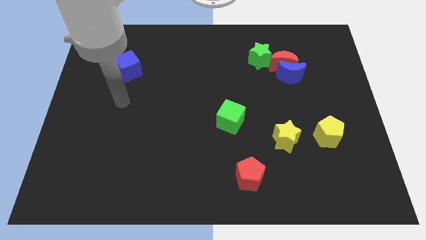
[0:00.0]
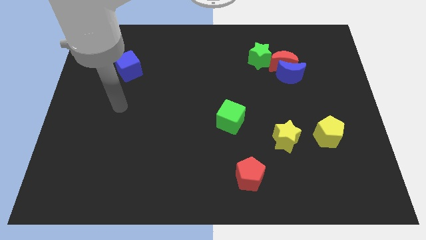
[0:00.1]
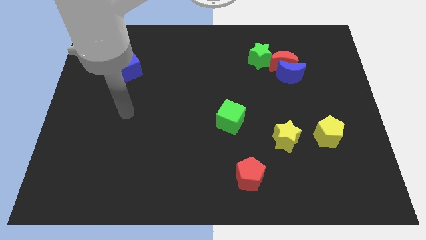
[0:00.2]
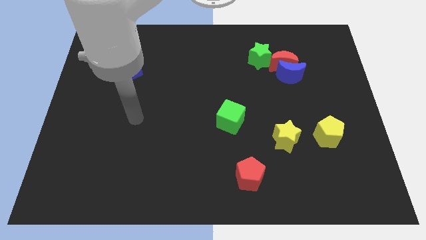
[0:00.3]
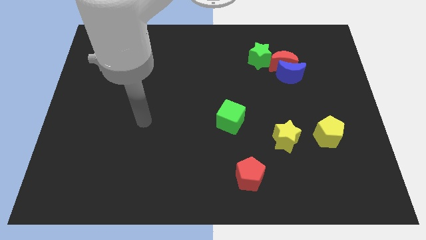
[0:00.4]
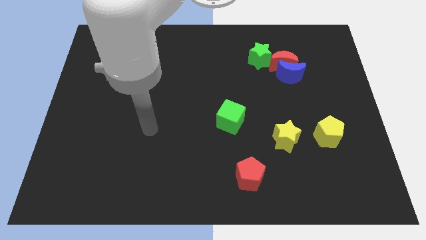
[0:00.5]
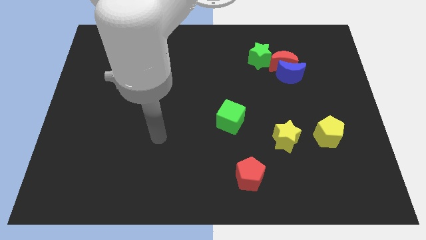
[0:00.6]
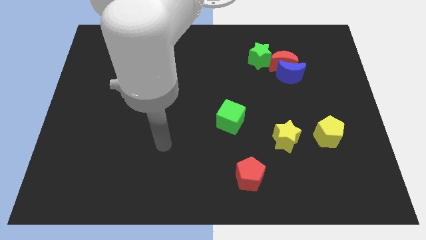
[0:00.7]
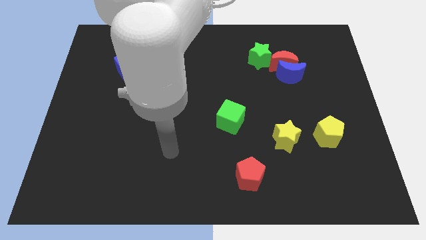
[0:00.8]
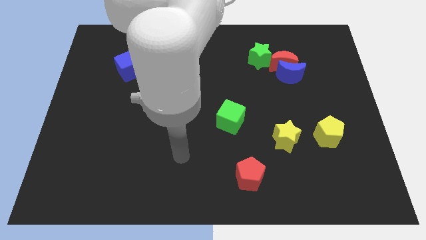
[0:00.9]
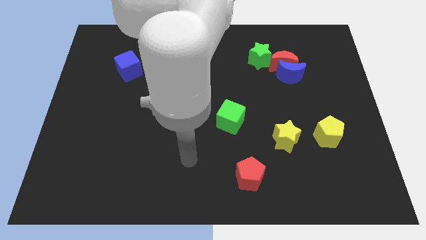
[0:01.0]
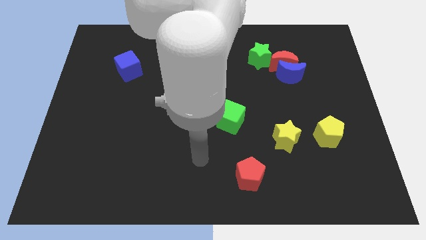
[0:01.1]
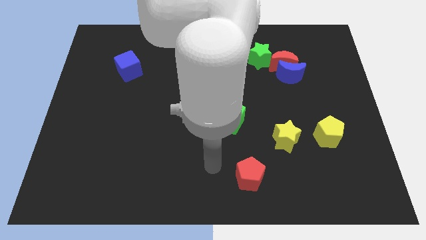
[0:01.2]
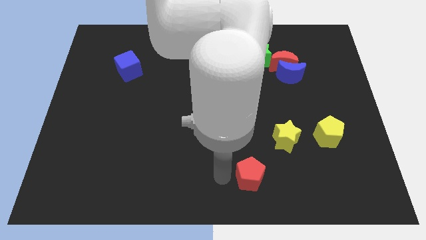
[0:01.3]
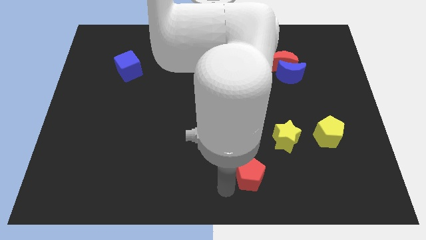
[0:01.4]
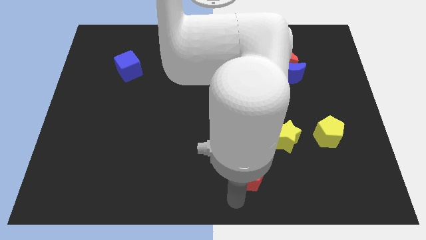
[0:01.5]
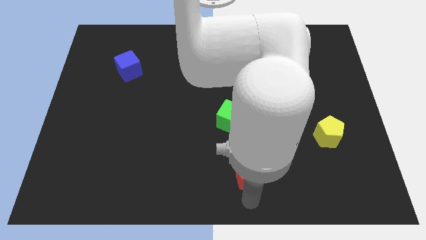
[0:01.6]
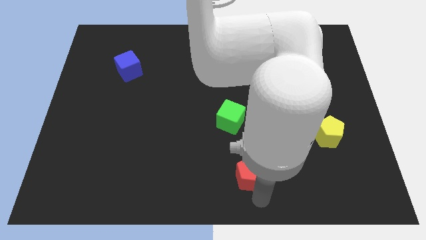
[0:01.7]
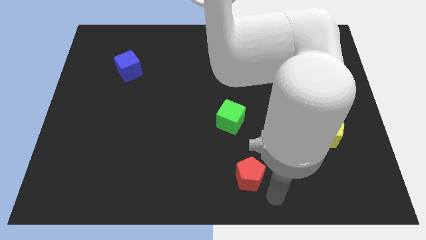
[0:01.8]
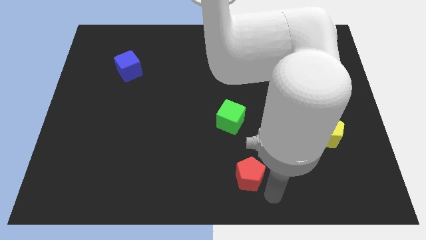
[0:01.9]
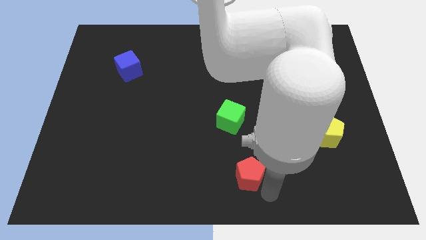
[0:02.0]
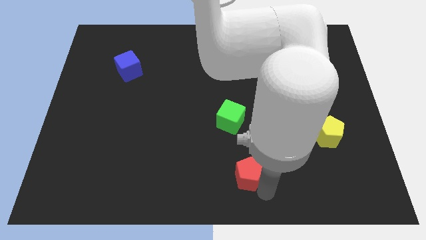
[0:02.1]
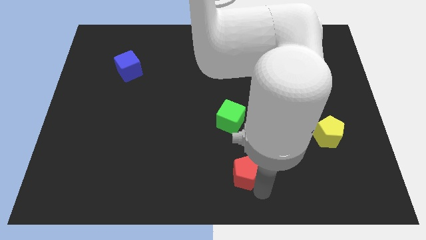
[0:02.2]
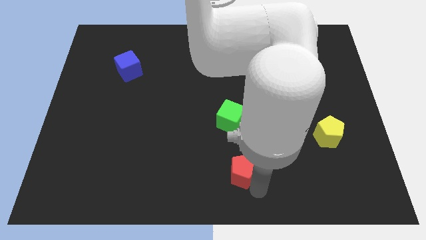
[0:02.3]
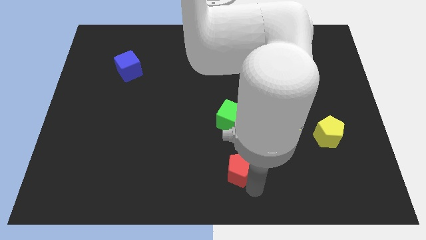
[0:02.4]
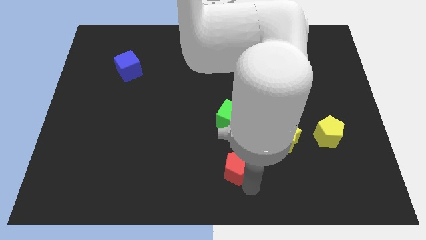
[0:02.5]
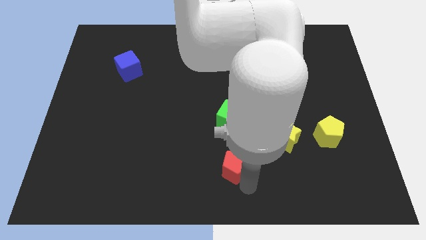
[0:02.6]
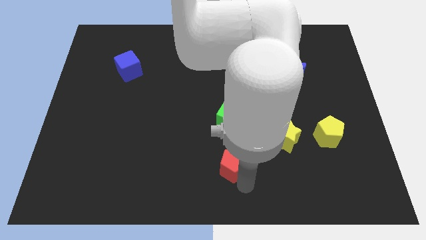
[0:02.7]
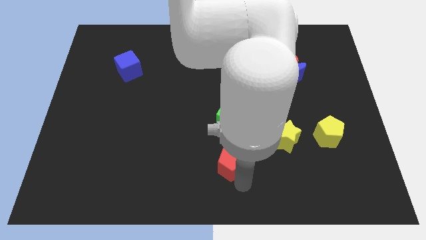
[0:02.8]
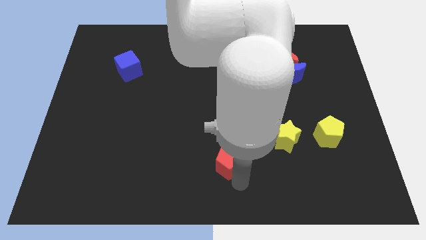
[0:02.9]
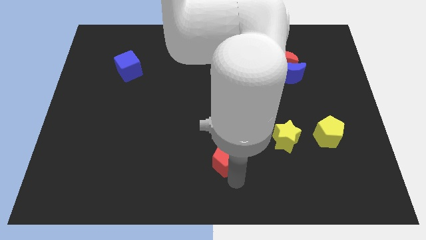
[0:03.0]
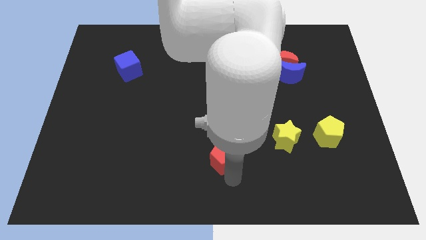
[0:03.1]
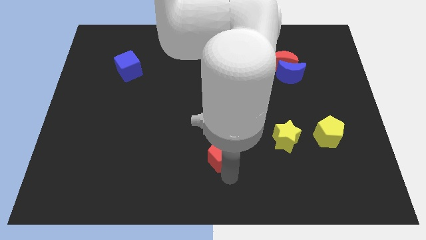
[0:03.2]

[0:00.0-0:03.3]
move the red pentagon up and then left somewhat

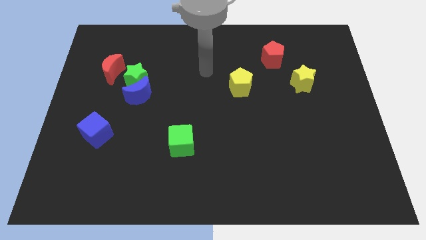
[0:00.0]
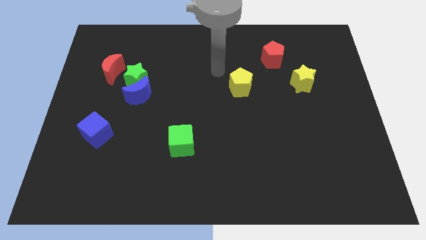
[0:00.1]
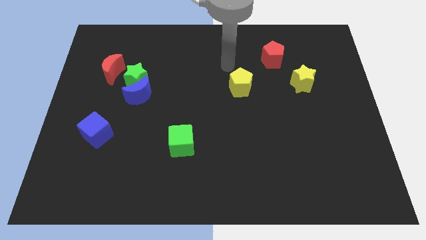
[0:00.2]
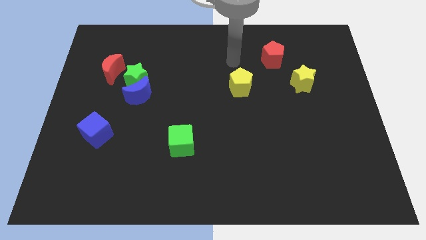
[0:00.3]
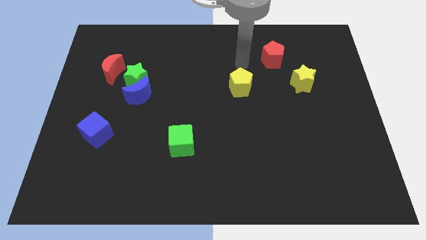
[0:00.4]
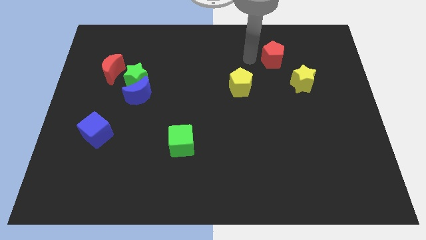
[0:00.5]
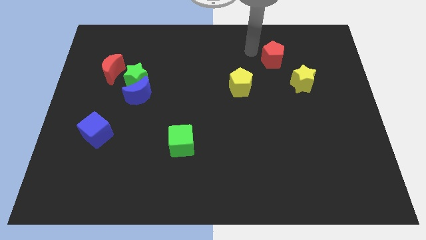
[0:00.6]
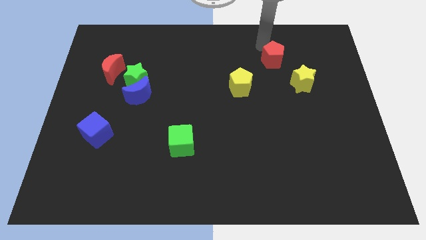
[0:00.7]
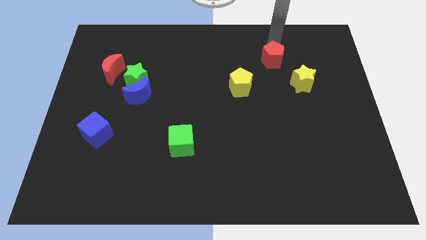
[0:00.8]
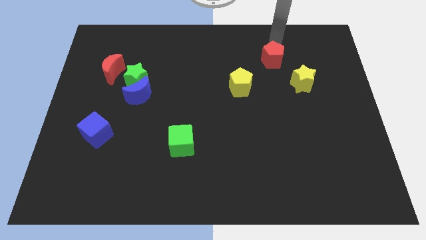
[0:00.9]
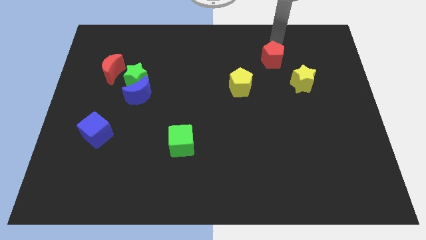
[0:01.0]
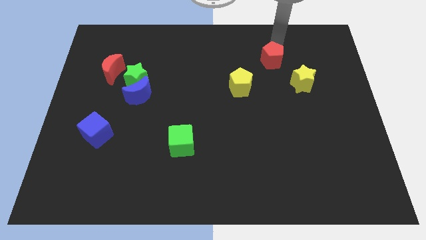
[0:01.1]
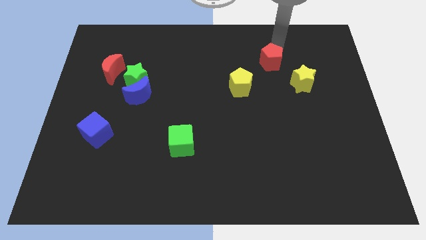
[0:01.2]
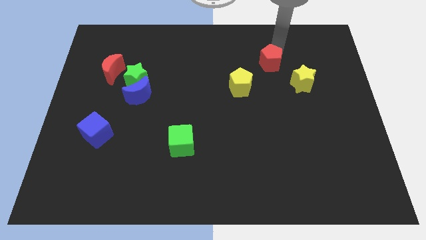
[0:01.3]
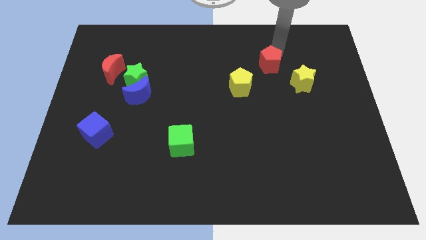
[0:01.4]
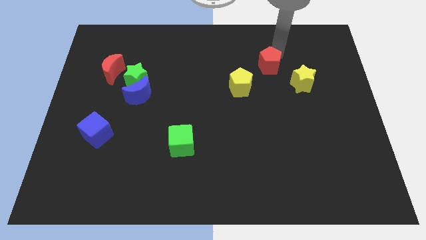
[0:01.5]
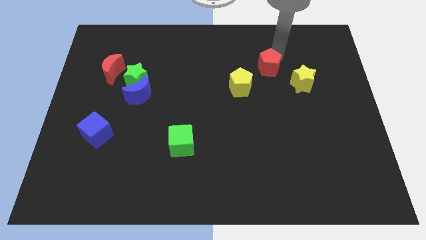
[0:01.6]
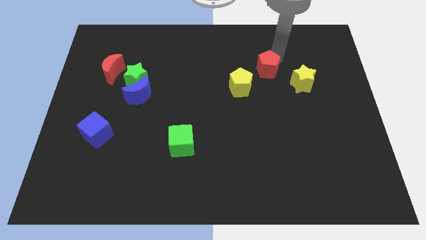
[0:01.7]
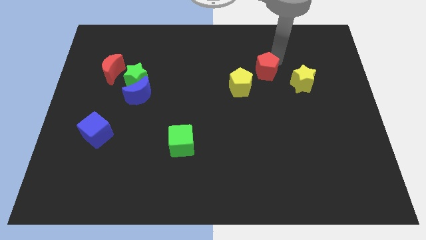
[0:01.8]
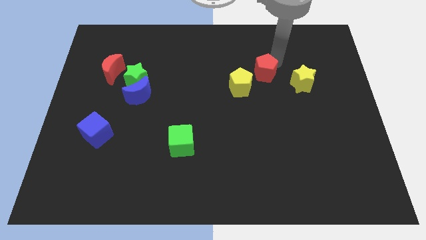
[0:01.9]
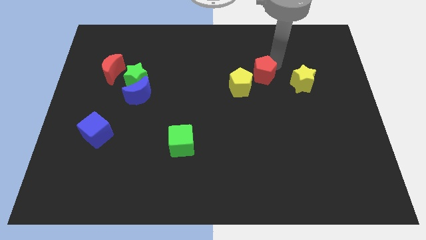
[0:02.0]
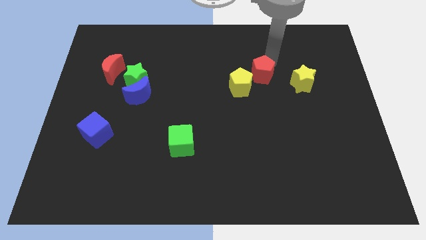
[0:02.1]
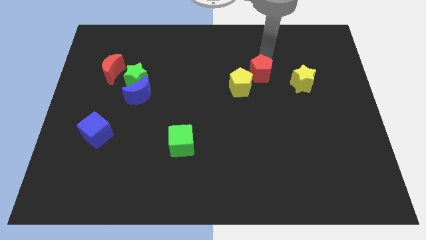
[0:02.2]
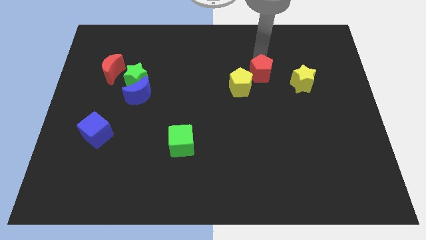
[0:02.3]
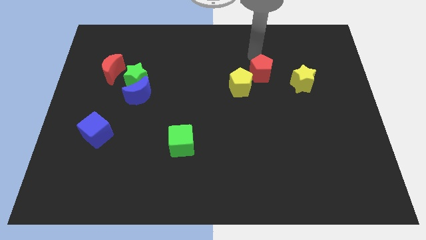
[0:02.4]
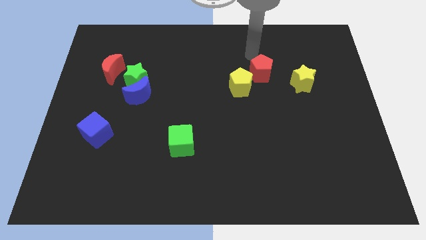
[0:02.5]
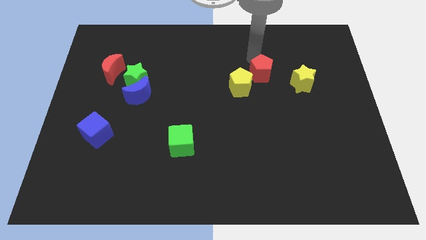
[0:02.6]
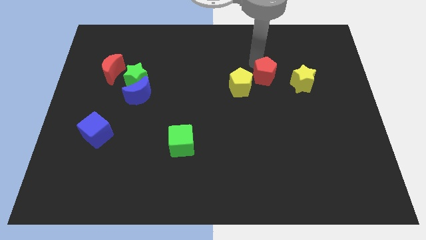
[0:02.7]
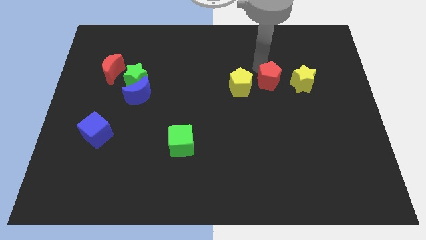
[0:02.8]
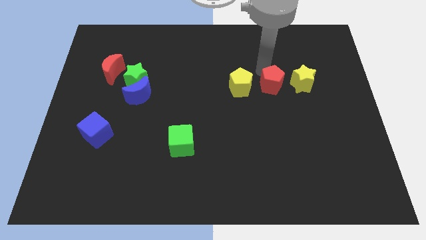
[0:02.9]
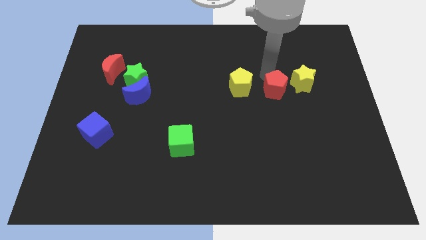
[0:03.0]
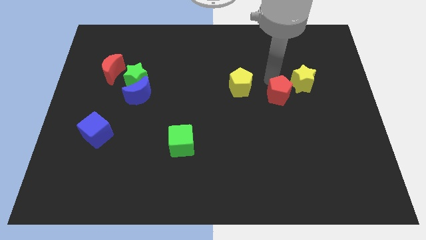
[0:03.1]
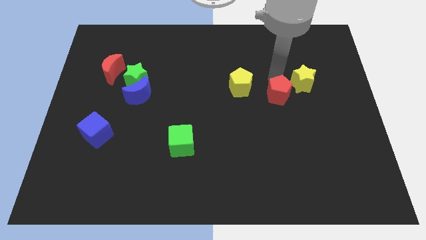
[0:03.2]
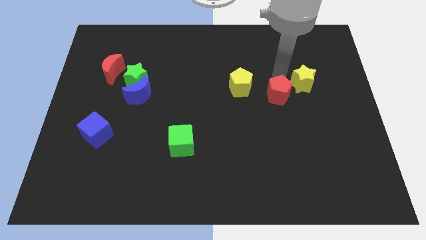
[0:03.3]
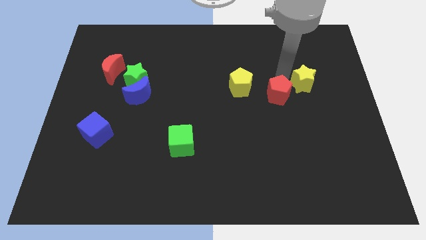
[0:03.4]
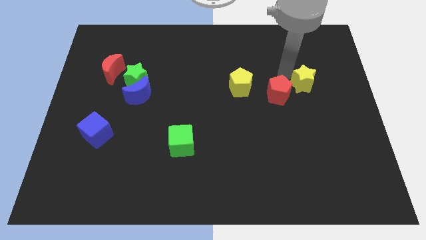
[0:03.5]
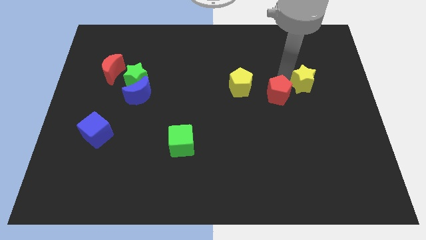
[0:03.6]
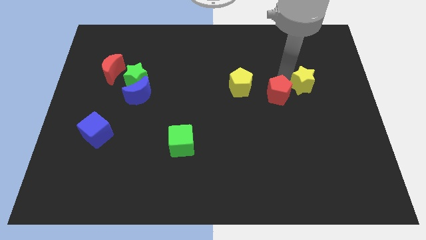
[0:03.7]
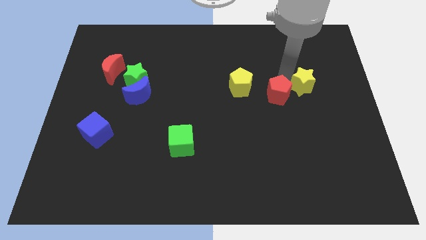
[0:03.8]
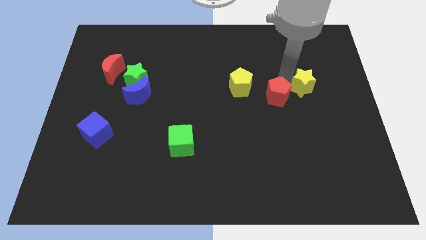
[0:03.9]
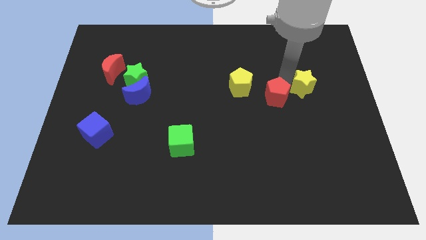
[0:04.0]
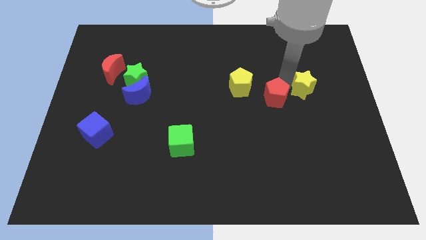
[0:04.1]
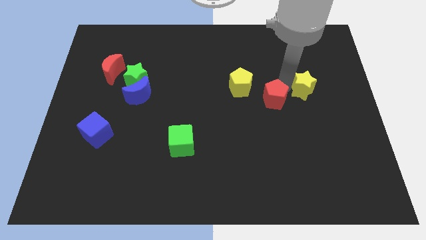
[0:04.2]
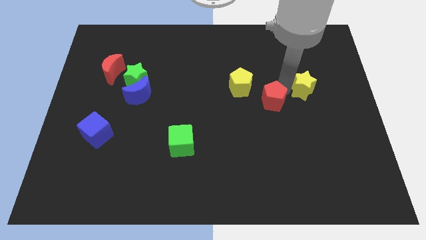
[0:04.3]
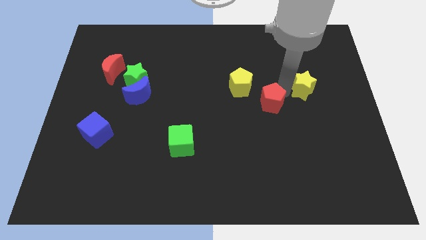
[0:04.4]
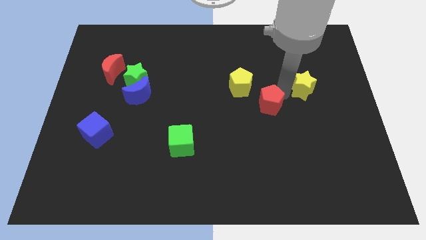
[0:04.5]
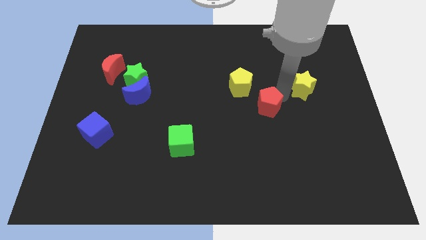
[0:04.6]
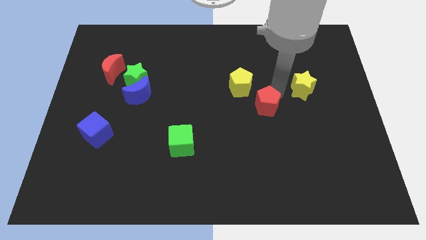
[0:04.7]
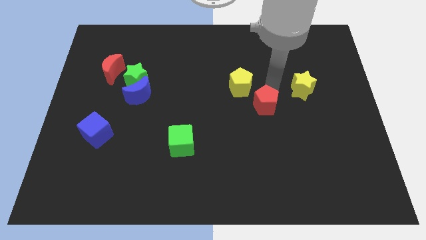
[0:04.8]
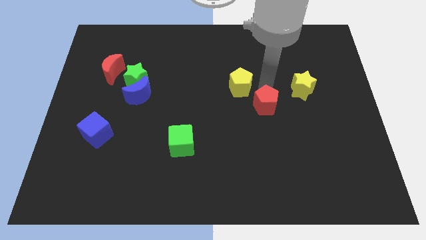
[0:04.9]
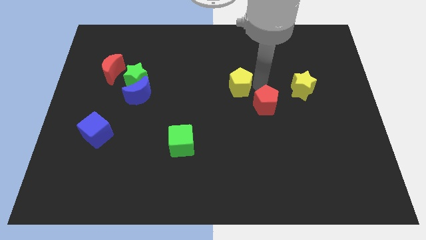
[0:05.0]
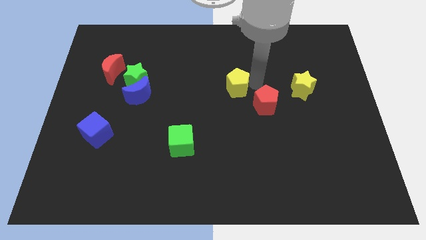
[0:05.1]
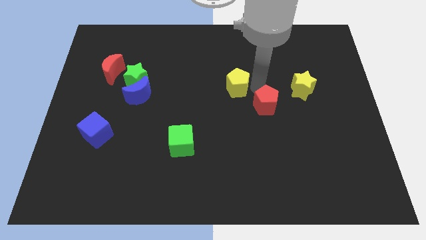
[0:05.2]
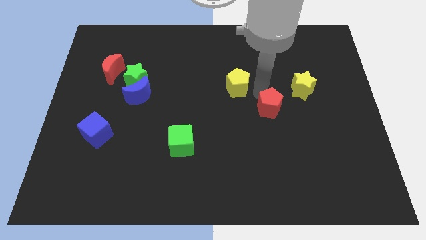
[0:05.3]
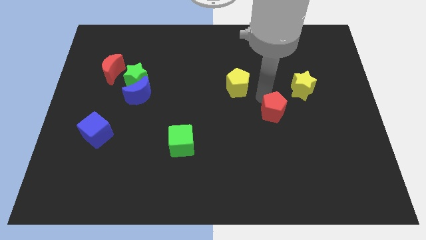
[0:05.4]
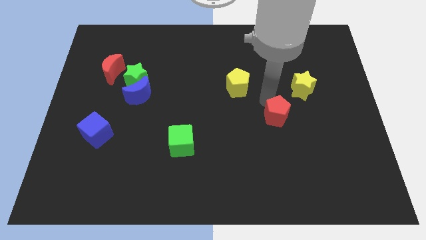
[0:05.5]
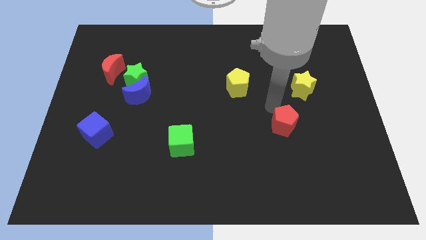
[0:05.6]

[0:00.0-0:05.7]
move the red pentagon downwards
